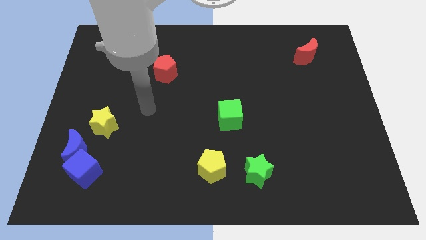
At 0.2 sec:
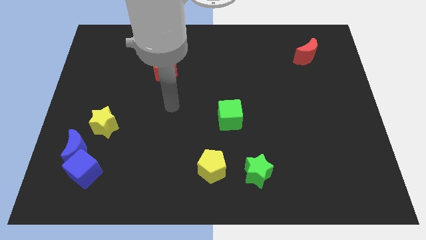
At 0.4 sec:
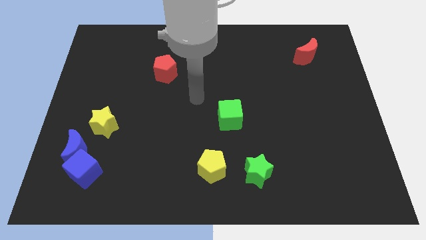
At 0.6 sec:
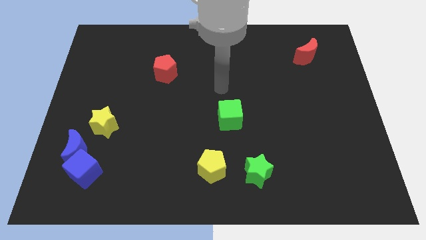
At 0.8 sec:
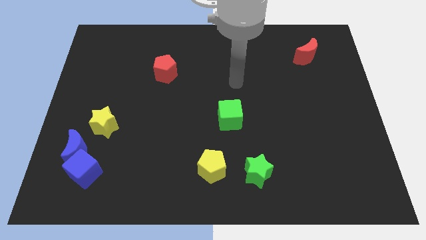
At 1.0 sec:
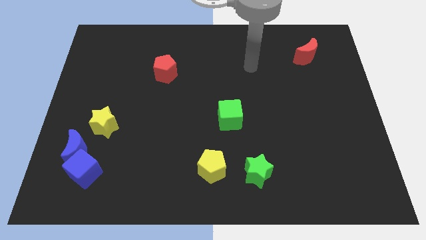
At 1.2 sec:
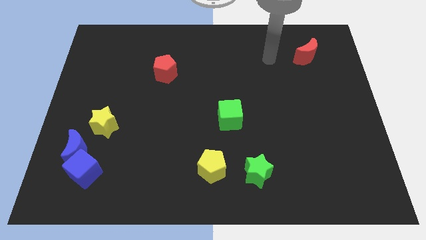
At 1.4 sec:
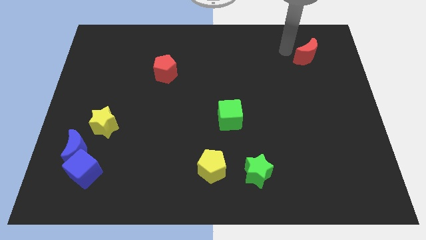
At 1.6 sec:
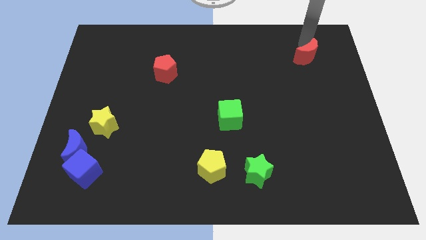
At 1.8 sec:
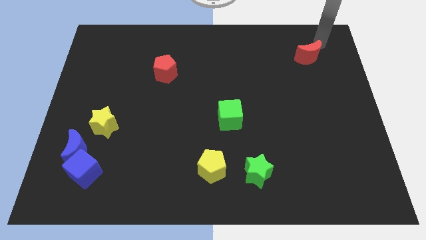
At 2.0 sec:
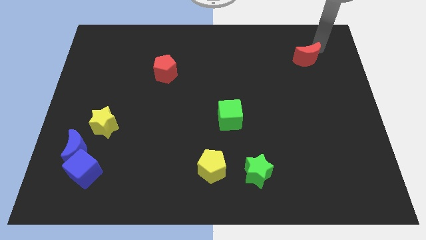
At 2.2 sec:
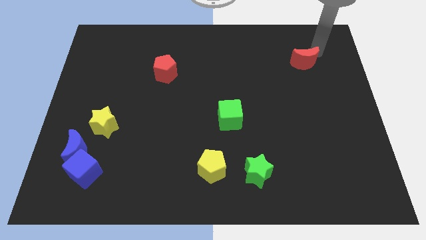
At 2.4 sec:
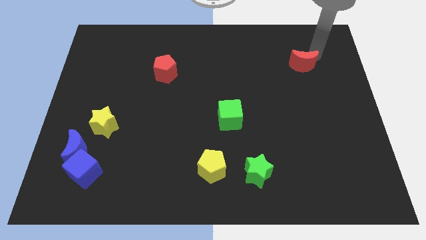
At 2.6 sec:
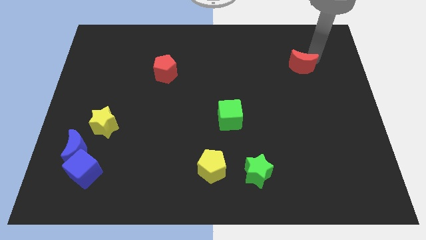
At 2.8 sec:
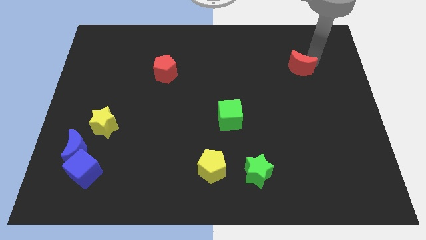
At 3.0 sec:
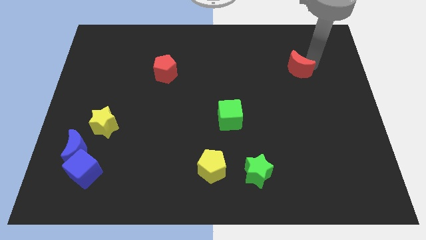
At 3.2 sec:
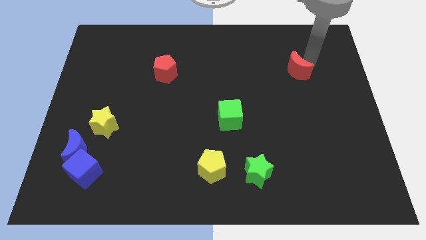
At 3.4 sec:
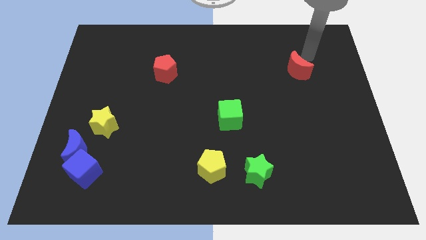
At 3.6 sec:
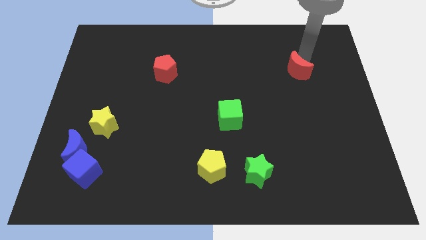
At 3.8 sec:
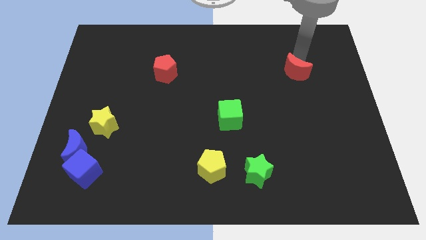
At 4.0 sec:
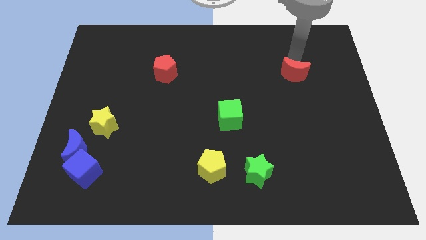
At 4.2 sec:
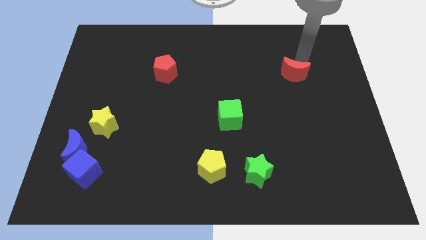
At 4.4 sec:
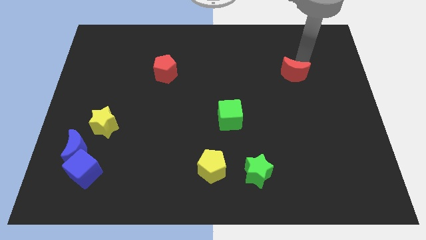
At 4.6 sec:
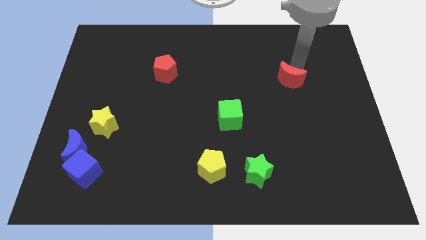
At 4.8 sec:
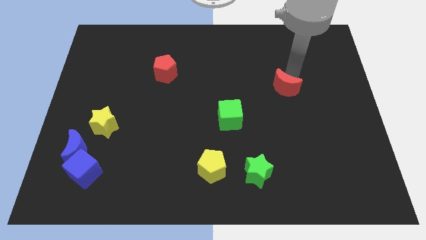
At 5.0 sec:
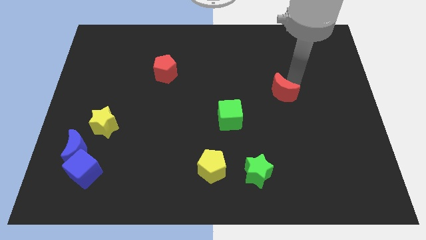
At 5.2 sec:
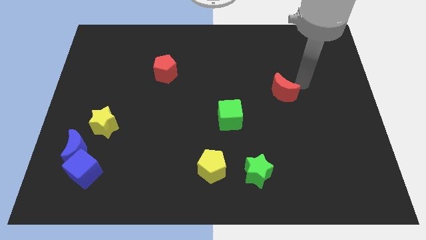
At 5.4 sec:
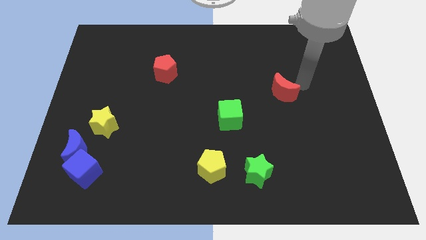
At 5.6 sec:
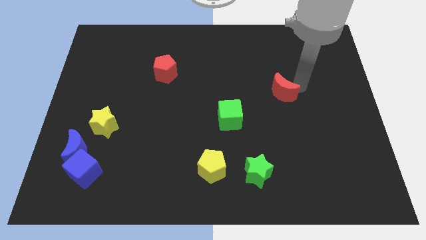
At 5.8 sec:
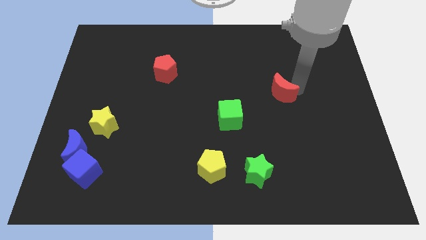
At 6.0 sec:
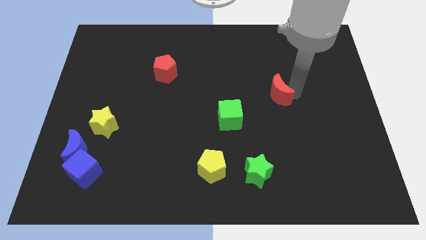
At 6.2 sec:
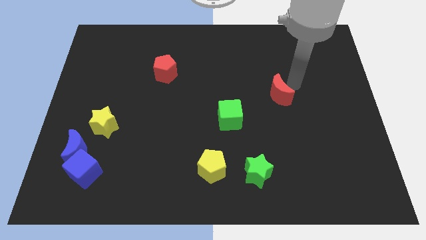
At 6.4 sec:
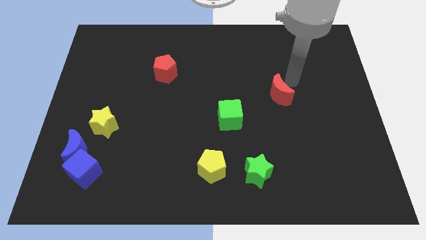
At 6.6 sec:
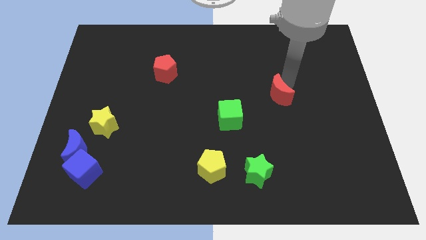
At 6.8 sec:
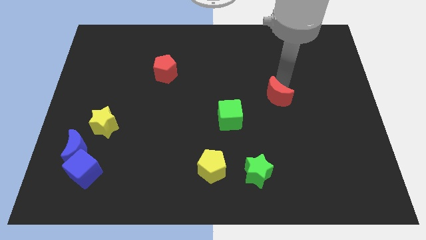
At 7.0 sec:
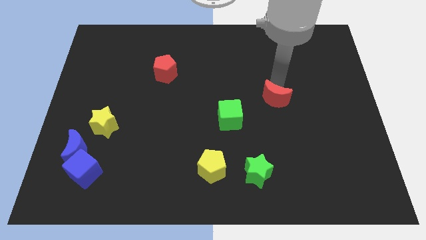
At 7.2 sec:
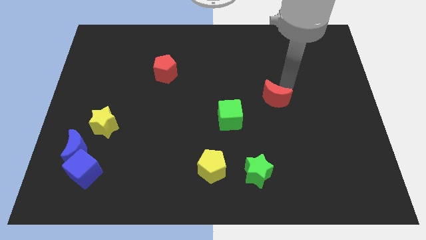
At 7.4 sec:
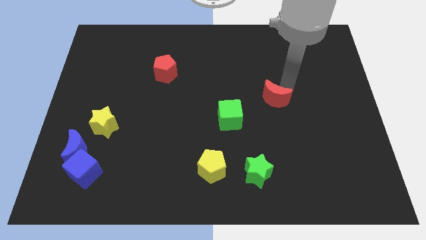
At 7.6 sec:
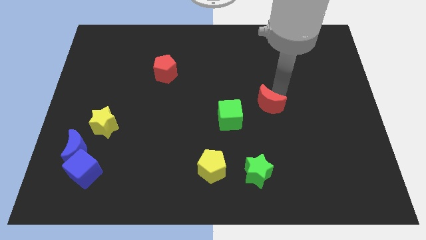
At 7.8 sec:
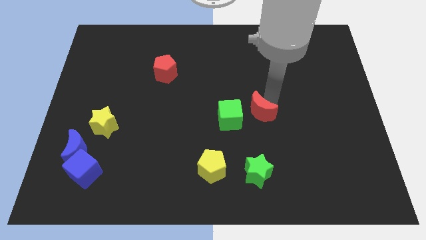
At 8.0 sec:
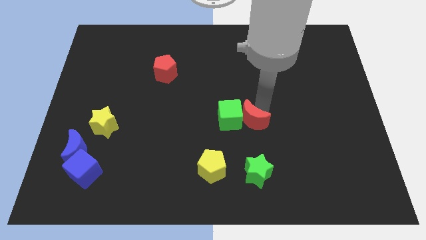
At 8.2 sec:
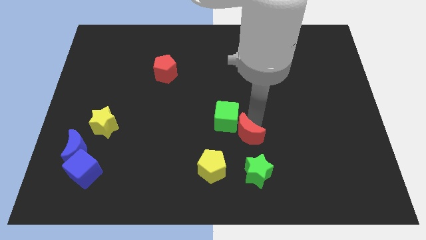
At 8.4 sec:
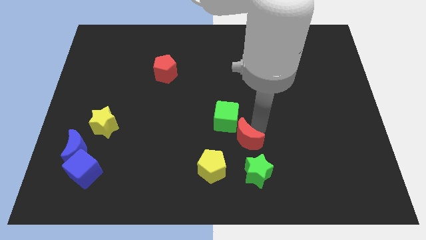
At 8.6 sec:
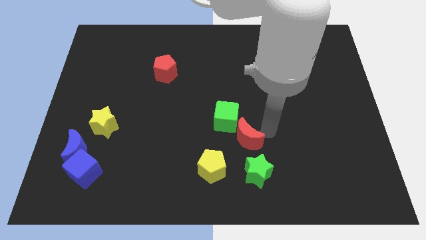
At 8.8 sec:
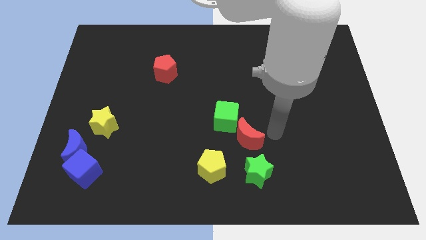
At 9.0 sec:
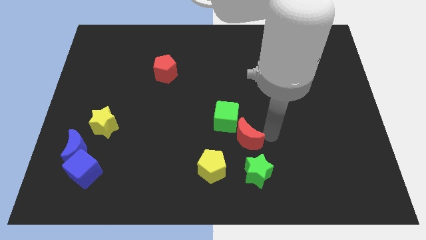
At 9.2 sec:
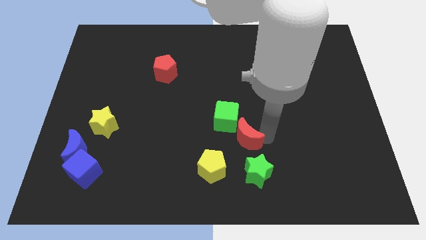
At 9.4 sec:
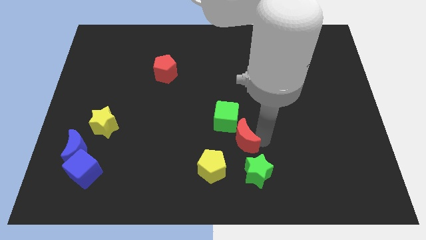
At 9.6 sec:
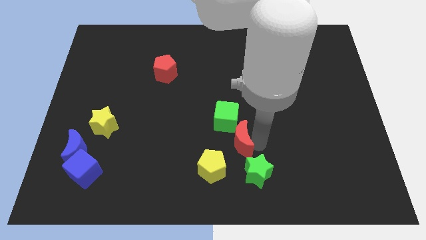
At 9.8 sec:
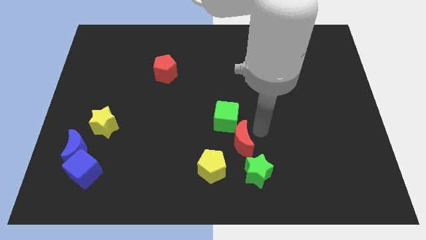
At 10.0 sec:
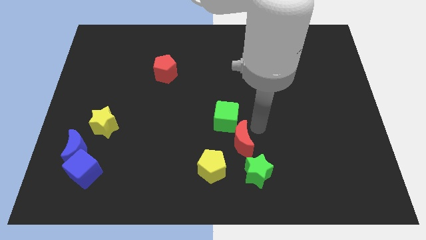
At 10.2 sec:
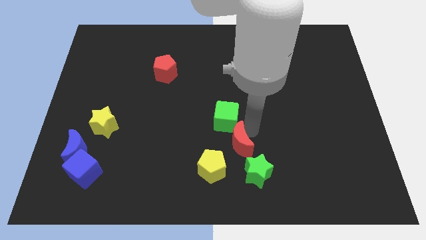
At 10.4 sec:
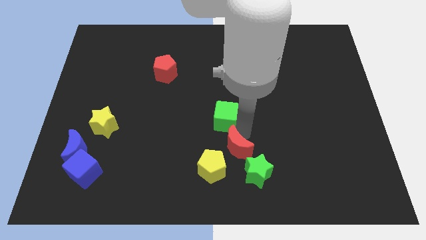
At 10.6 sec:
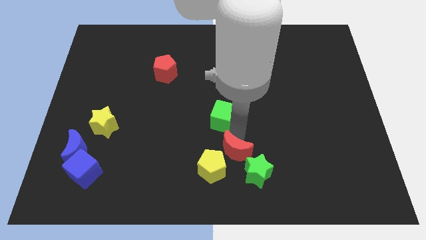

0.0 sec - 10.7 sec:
move the red moon to the yellow pentagon

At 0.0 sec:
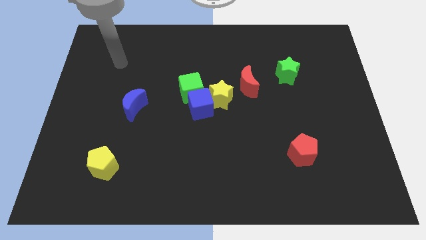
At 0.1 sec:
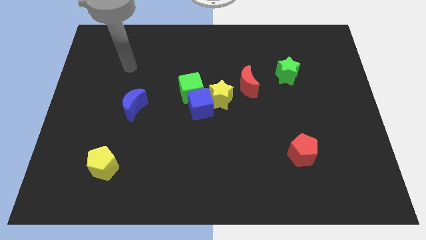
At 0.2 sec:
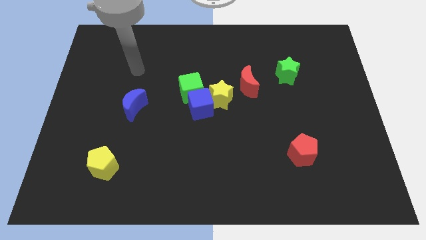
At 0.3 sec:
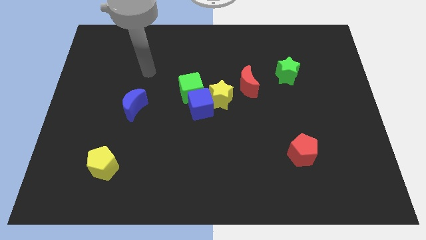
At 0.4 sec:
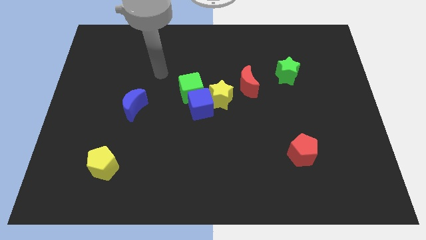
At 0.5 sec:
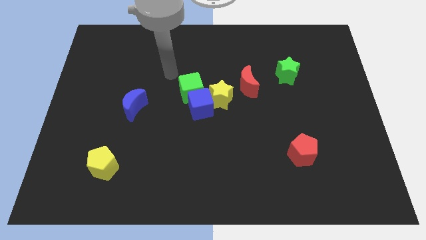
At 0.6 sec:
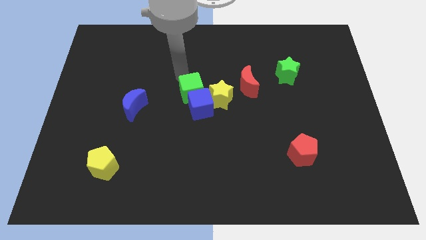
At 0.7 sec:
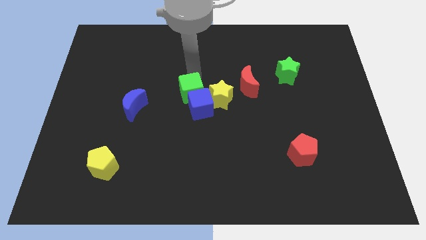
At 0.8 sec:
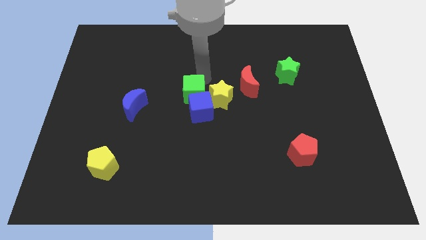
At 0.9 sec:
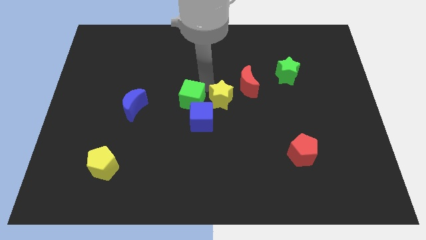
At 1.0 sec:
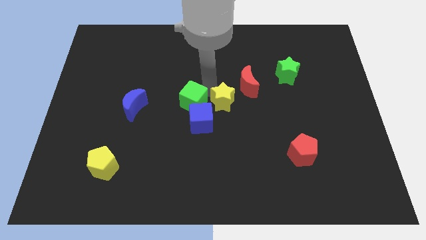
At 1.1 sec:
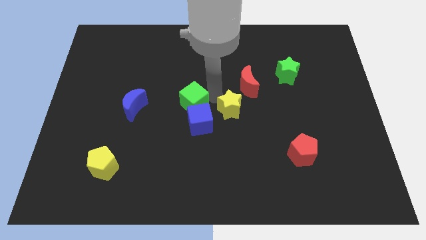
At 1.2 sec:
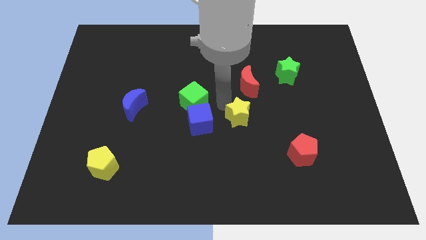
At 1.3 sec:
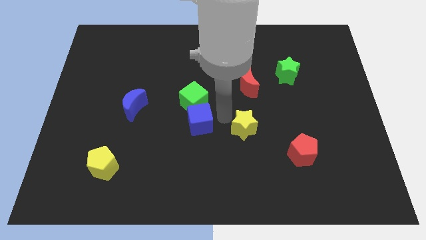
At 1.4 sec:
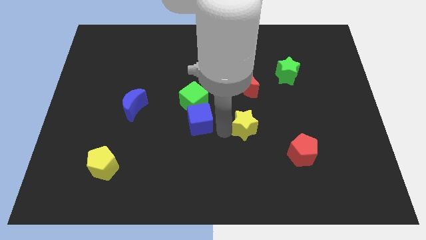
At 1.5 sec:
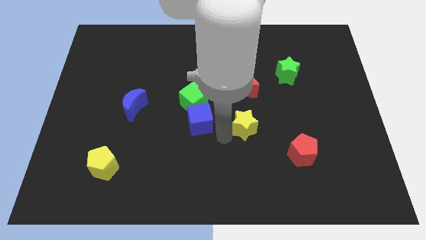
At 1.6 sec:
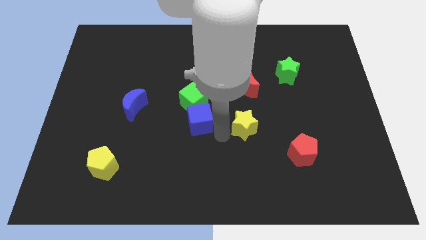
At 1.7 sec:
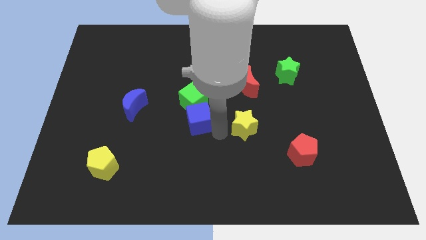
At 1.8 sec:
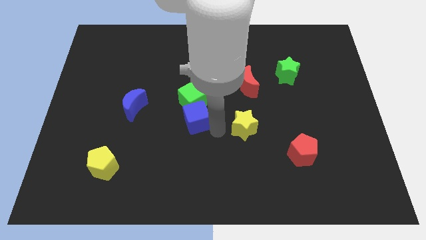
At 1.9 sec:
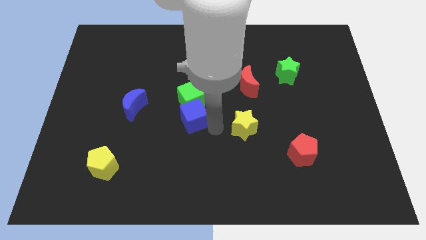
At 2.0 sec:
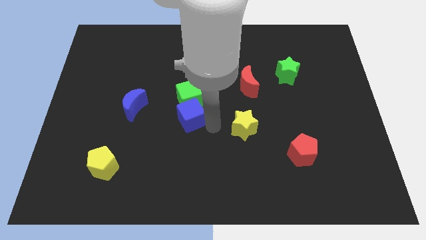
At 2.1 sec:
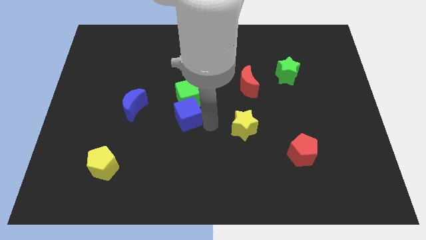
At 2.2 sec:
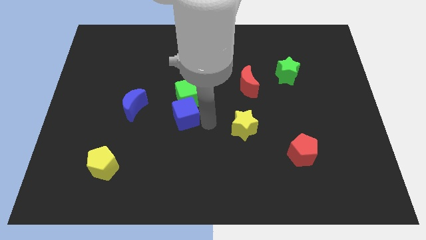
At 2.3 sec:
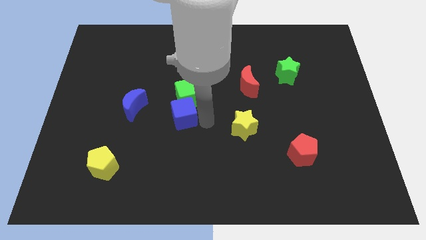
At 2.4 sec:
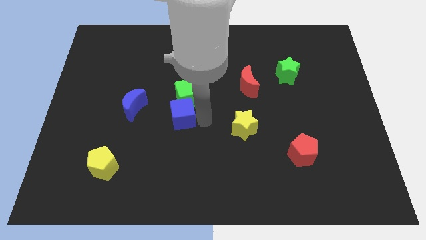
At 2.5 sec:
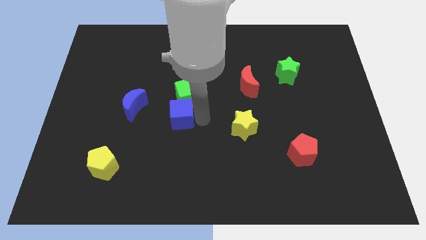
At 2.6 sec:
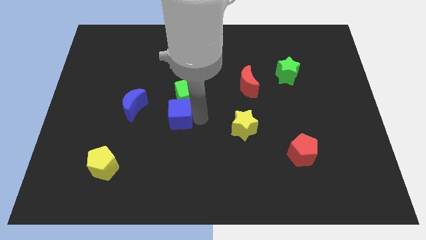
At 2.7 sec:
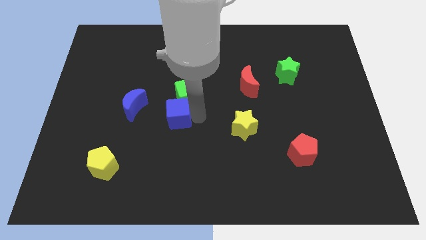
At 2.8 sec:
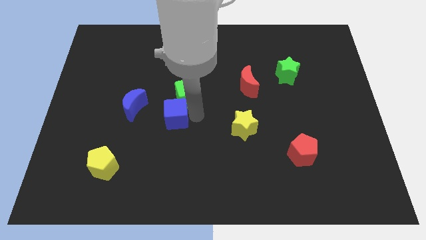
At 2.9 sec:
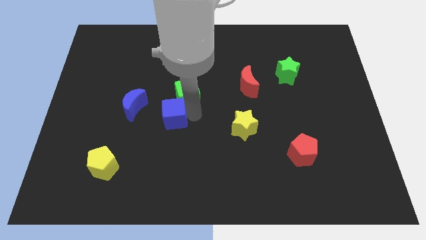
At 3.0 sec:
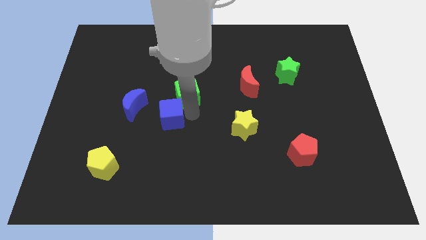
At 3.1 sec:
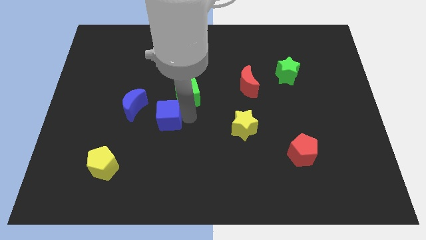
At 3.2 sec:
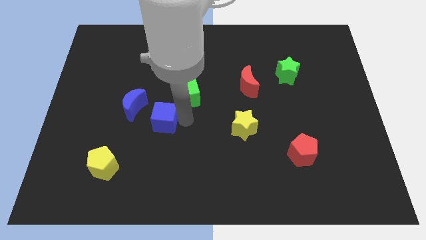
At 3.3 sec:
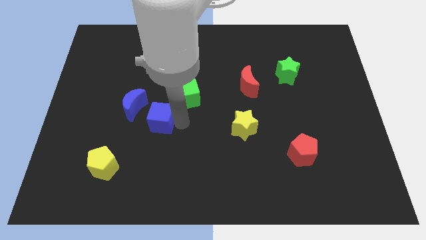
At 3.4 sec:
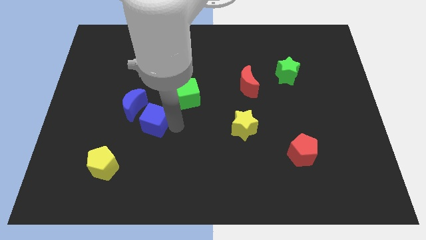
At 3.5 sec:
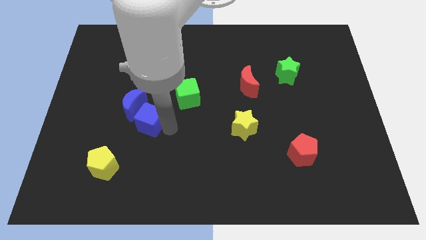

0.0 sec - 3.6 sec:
push the blue cube towards the blue moon
